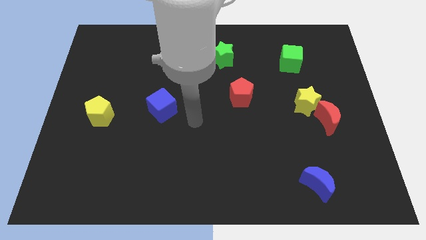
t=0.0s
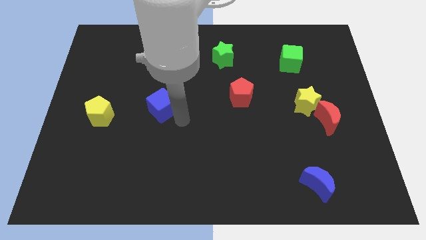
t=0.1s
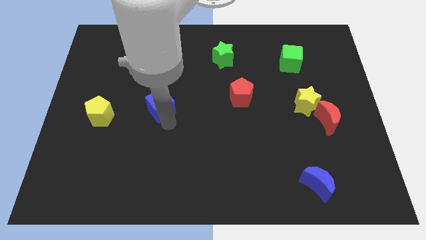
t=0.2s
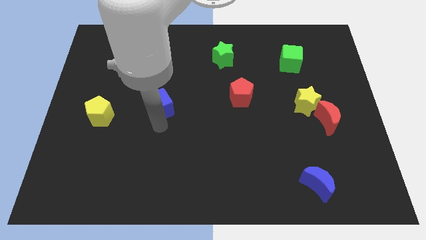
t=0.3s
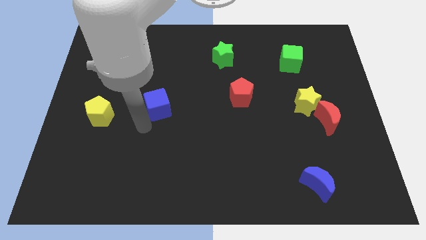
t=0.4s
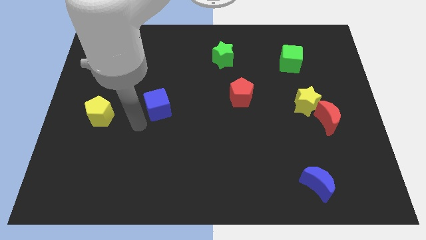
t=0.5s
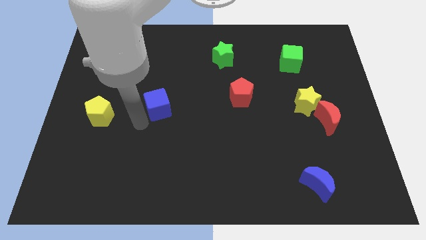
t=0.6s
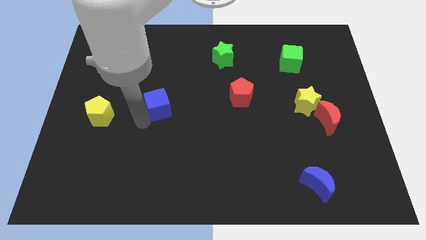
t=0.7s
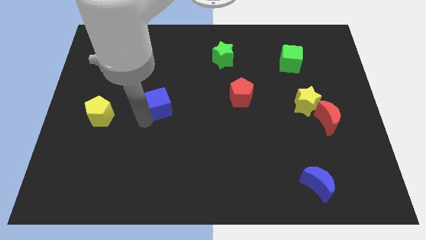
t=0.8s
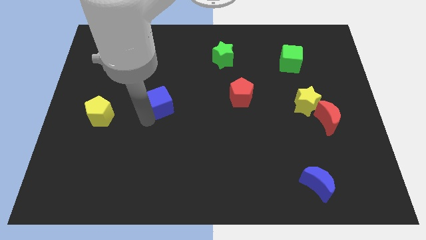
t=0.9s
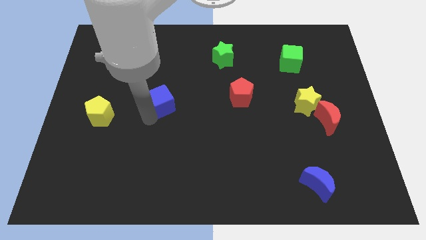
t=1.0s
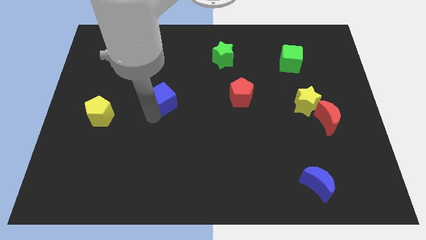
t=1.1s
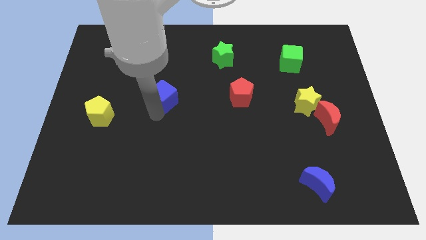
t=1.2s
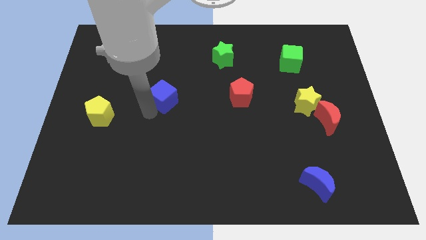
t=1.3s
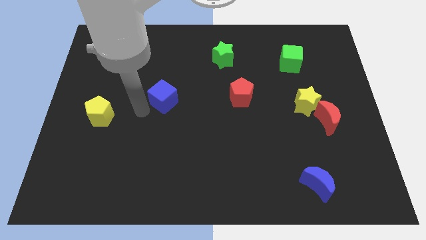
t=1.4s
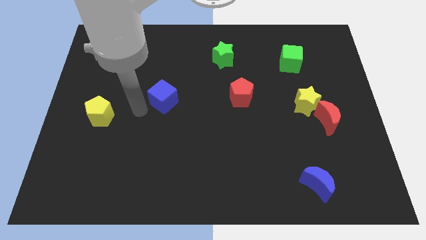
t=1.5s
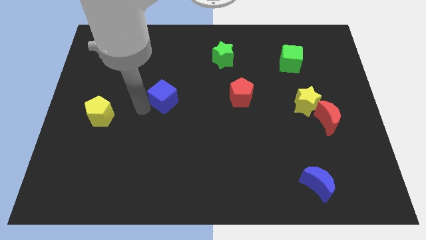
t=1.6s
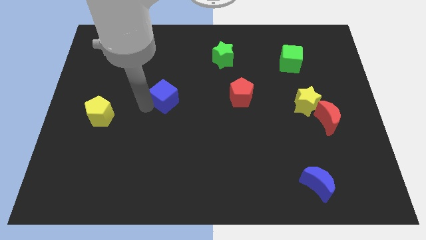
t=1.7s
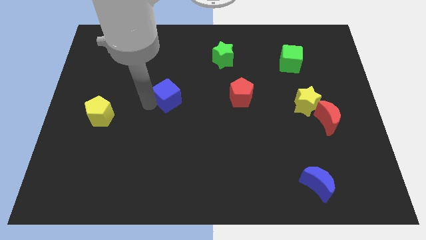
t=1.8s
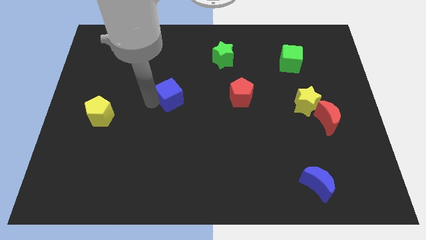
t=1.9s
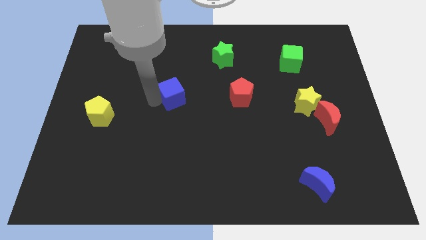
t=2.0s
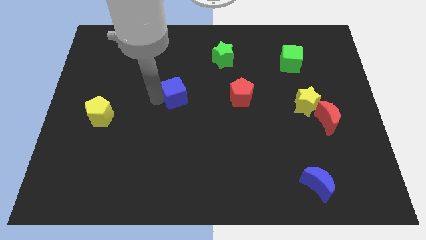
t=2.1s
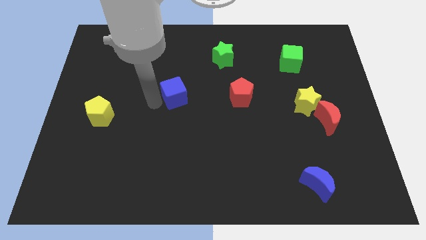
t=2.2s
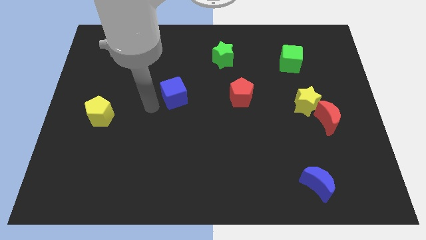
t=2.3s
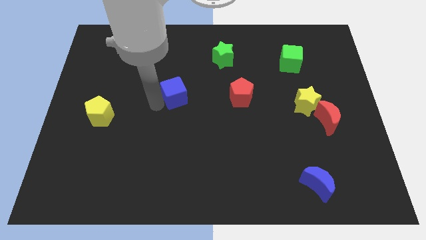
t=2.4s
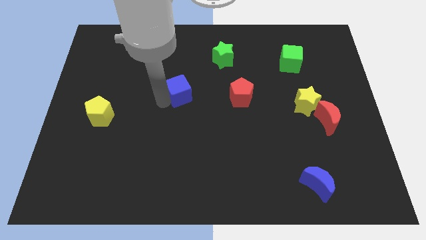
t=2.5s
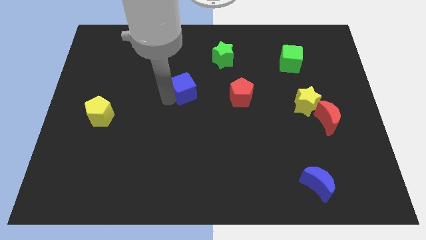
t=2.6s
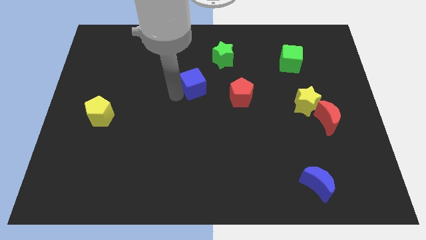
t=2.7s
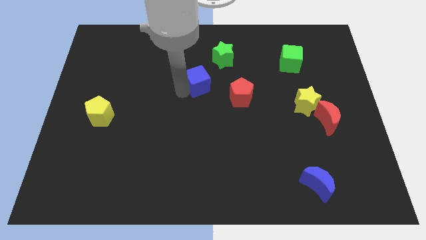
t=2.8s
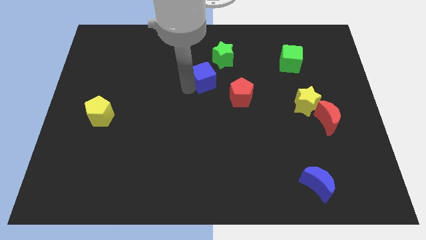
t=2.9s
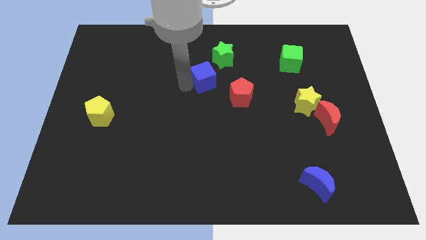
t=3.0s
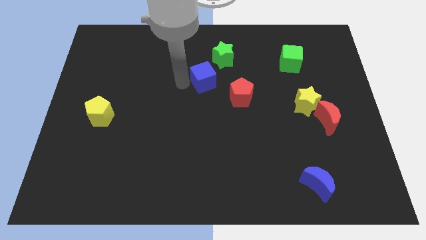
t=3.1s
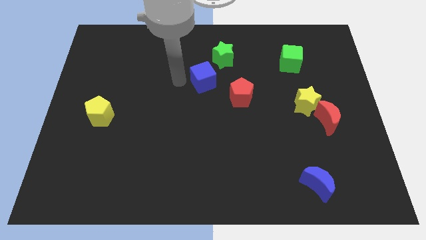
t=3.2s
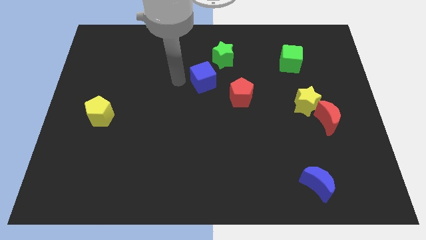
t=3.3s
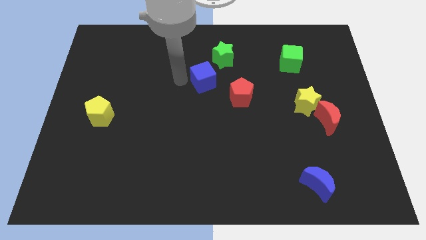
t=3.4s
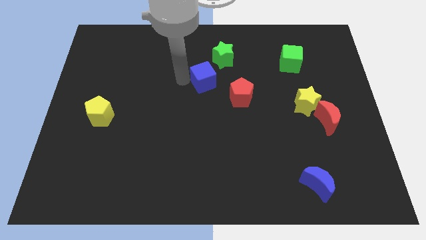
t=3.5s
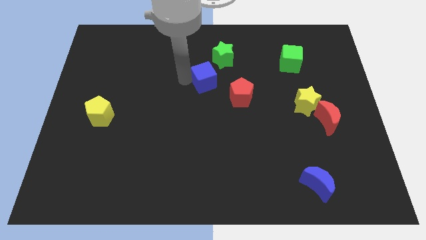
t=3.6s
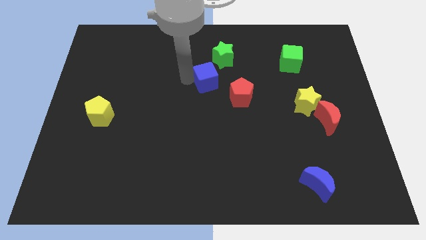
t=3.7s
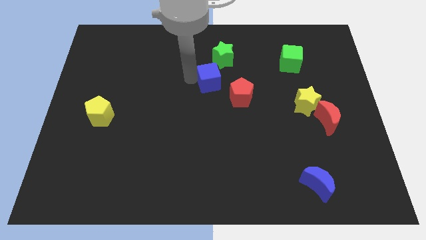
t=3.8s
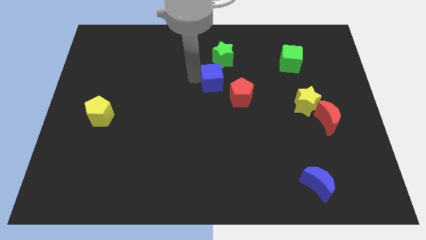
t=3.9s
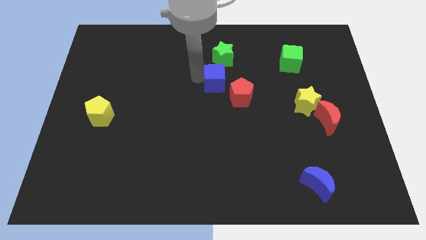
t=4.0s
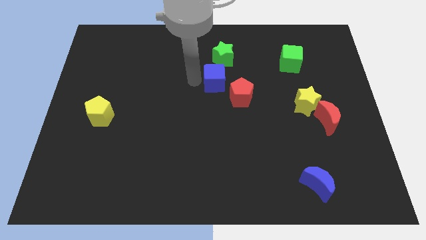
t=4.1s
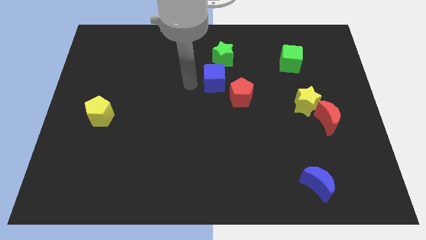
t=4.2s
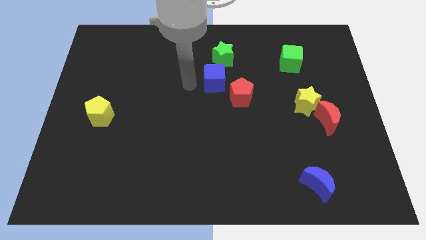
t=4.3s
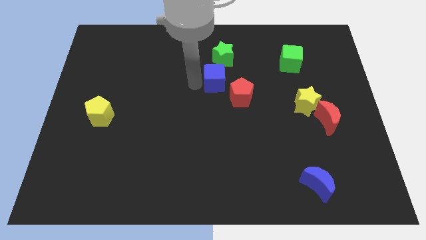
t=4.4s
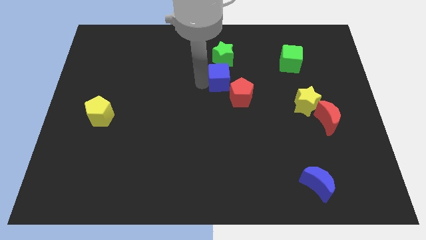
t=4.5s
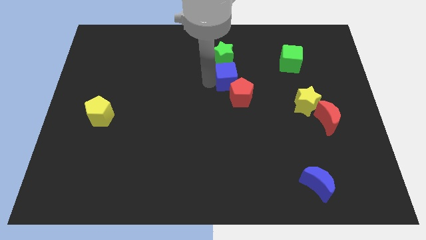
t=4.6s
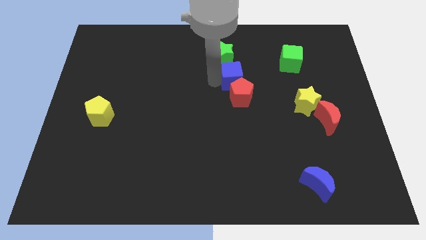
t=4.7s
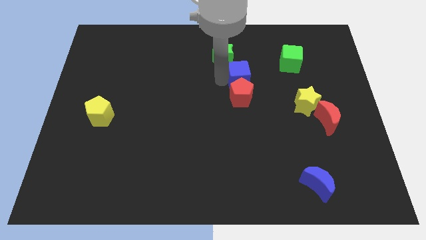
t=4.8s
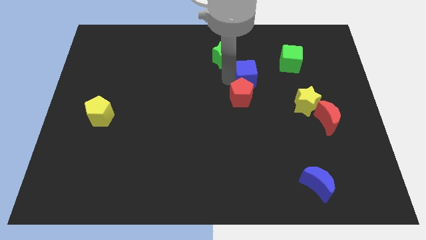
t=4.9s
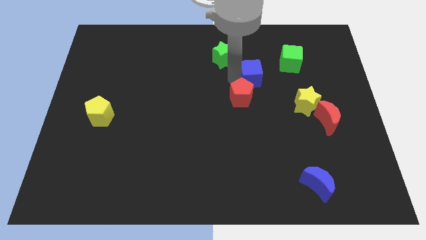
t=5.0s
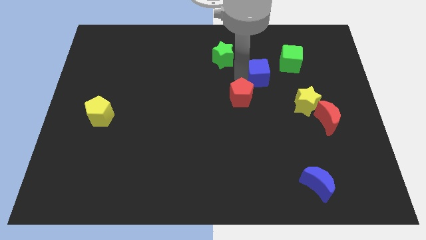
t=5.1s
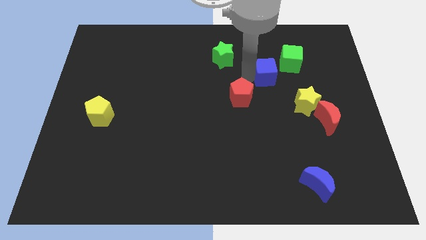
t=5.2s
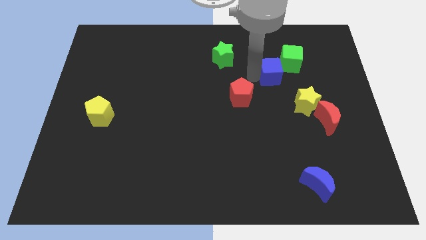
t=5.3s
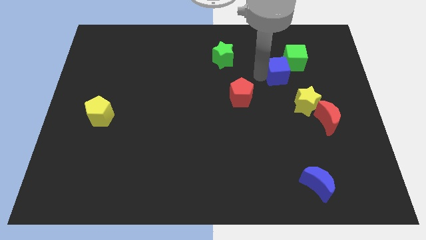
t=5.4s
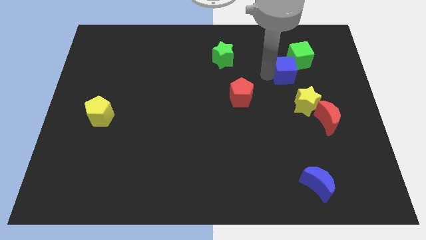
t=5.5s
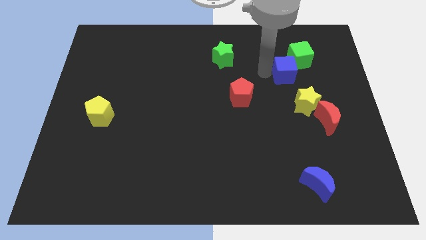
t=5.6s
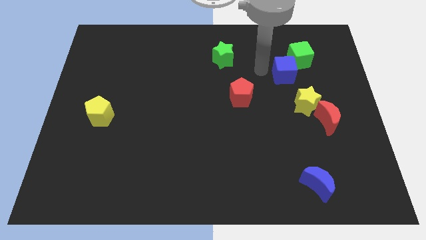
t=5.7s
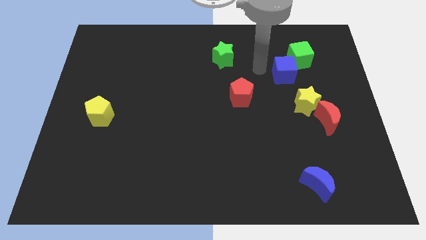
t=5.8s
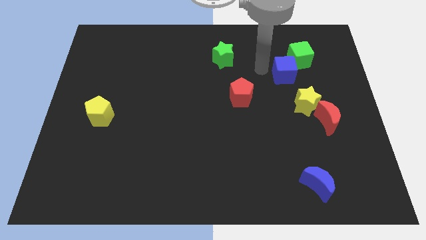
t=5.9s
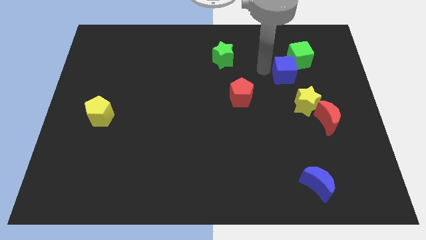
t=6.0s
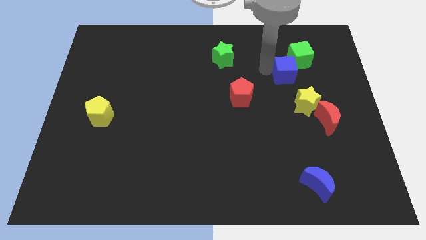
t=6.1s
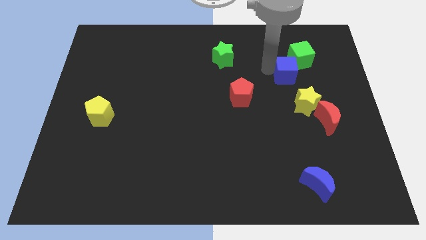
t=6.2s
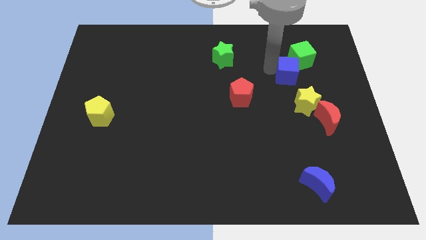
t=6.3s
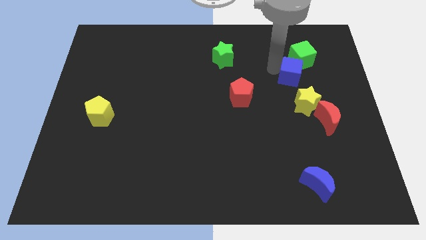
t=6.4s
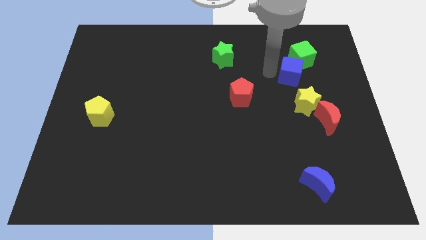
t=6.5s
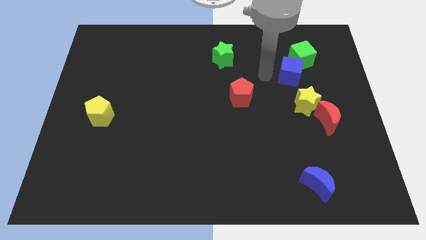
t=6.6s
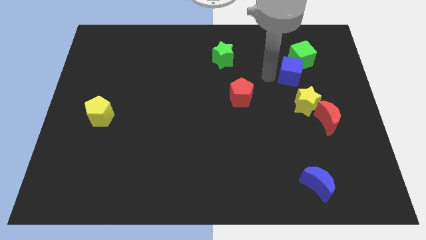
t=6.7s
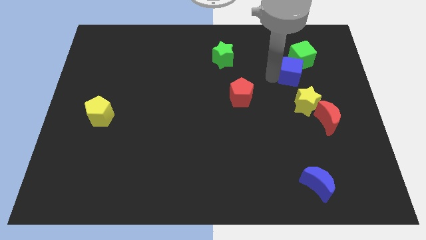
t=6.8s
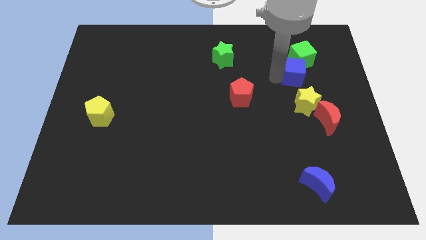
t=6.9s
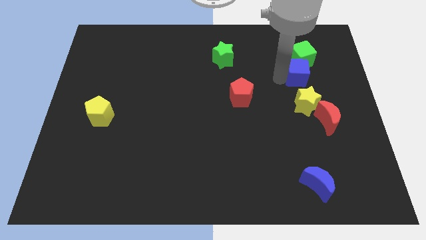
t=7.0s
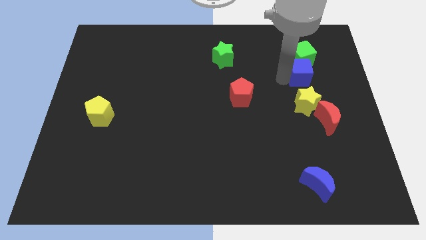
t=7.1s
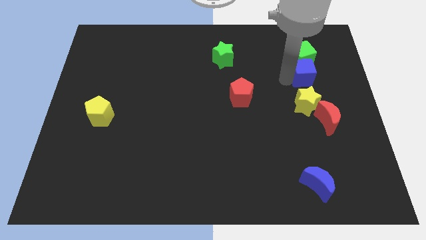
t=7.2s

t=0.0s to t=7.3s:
move the blue cube diagonally down and to the right of the green cube
